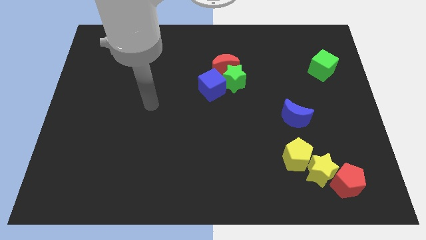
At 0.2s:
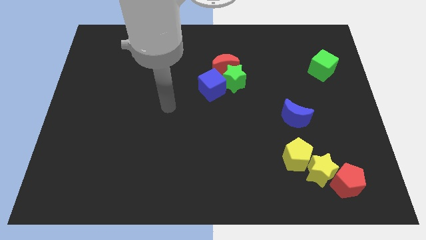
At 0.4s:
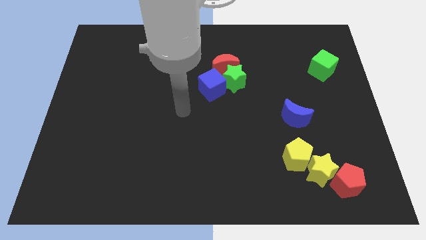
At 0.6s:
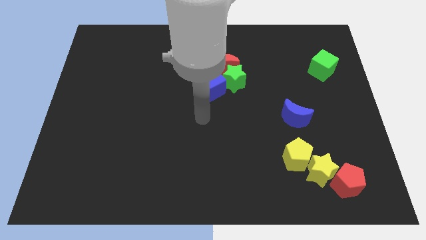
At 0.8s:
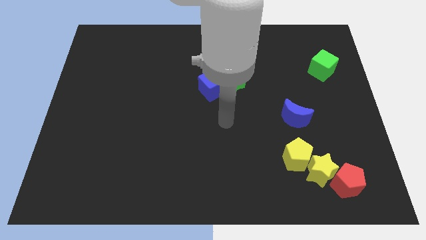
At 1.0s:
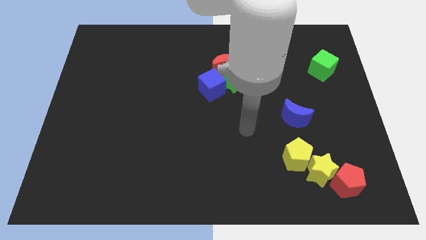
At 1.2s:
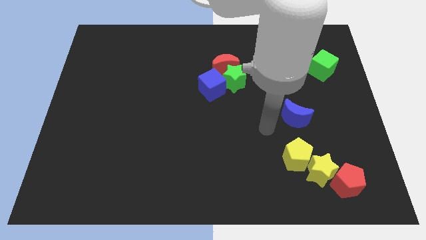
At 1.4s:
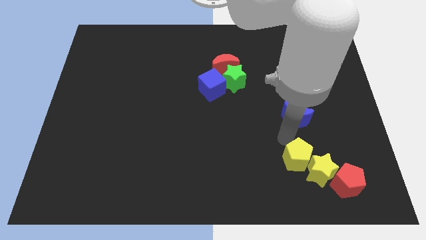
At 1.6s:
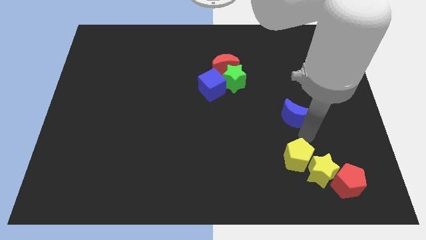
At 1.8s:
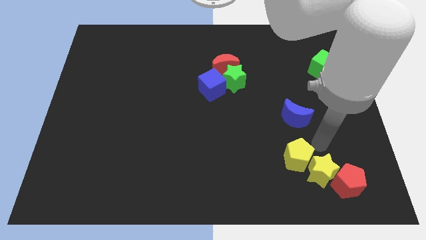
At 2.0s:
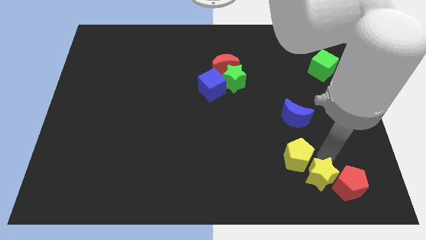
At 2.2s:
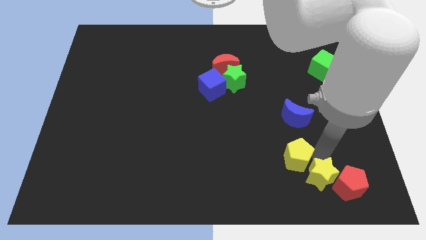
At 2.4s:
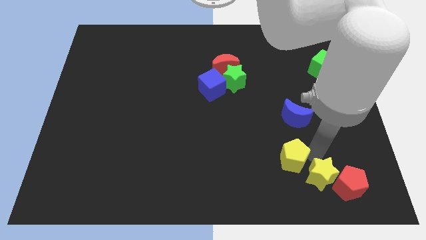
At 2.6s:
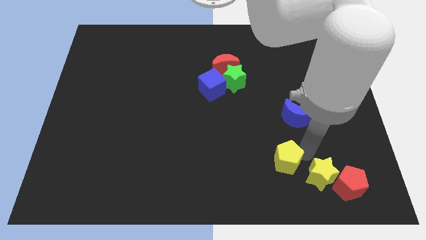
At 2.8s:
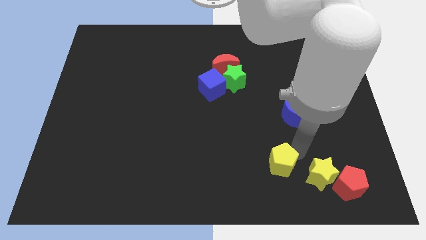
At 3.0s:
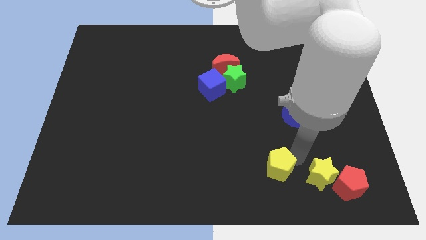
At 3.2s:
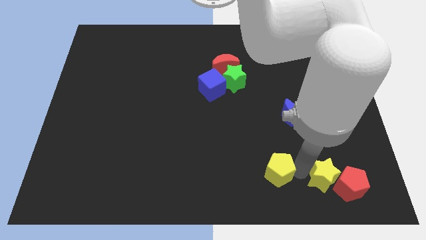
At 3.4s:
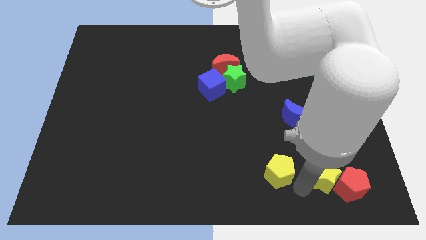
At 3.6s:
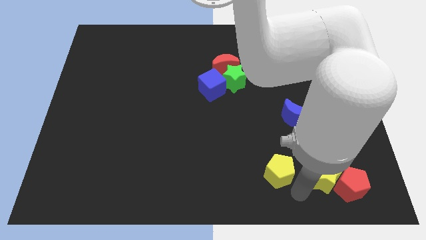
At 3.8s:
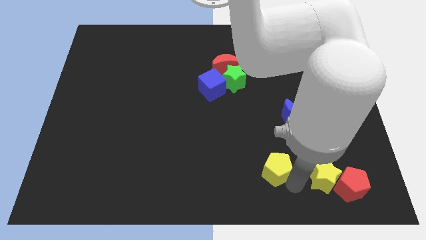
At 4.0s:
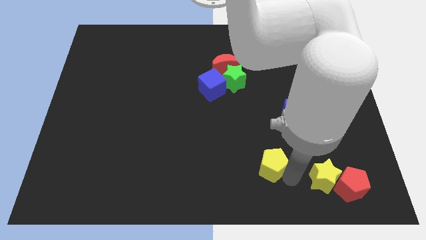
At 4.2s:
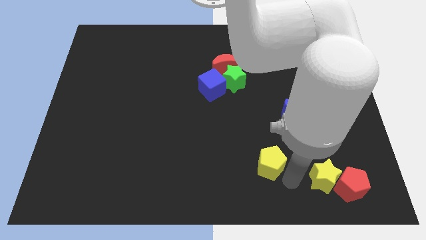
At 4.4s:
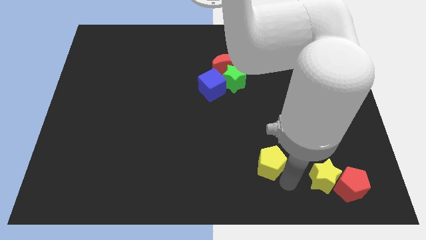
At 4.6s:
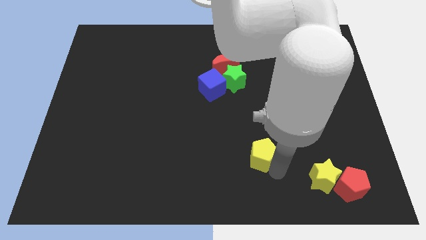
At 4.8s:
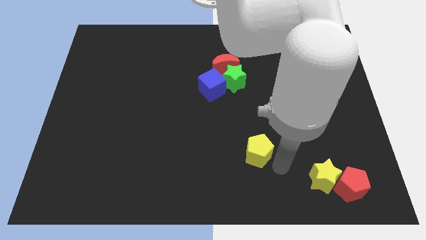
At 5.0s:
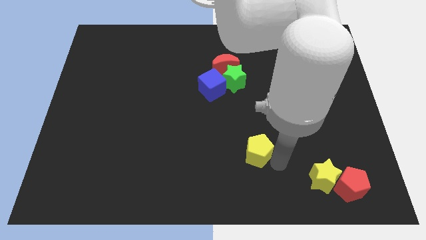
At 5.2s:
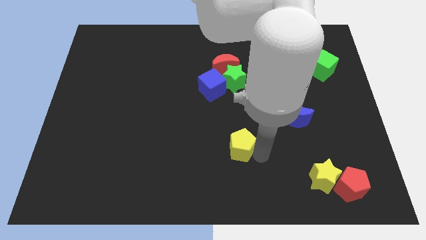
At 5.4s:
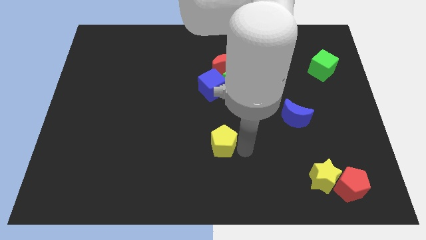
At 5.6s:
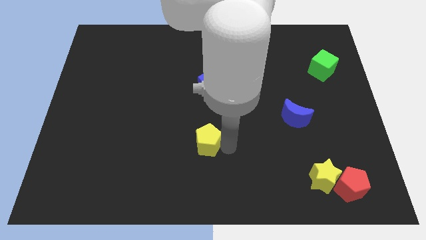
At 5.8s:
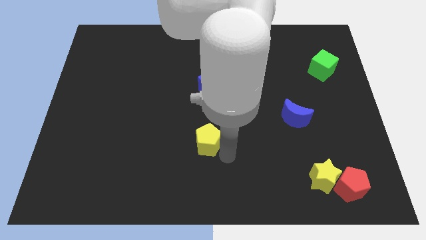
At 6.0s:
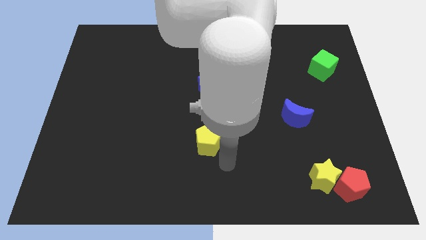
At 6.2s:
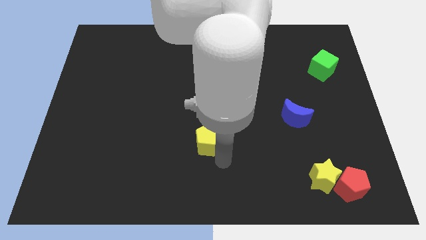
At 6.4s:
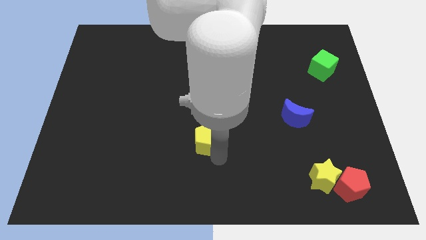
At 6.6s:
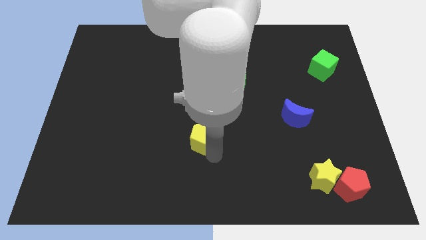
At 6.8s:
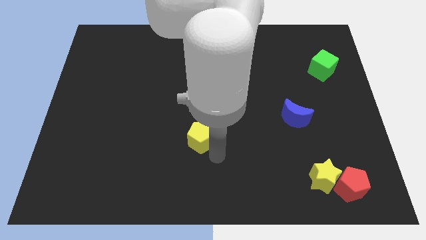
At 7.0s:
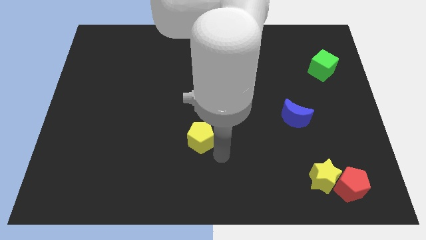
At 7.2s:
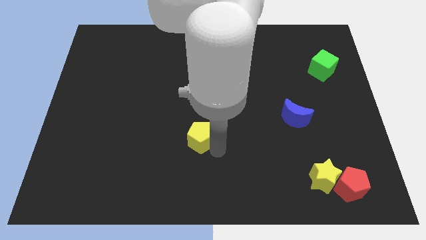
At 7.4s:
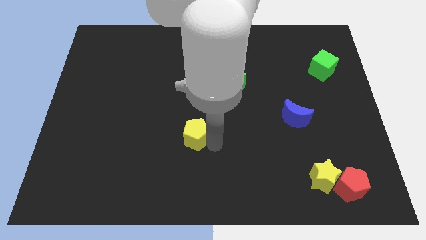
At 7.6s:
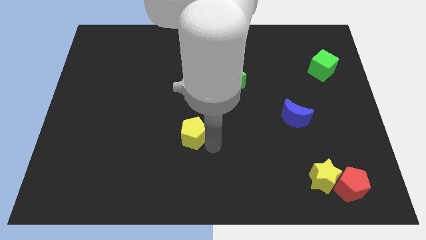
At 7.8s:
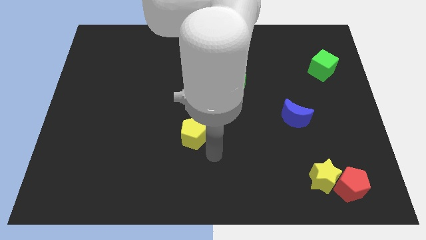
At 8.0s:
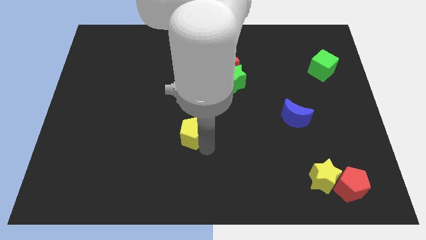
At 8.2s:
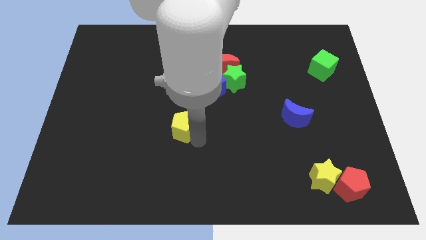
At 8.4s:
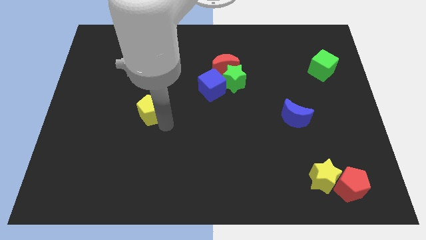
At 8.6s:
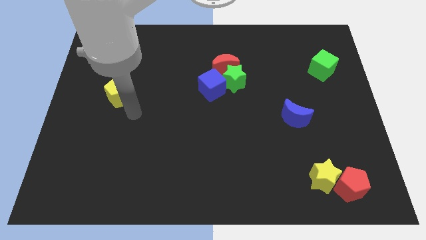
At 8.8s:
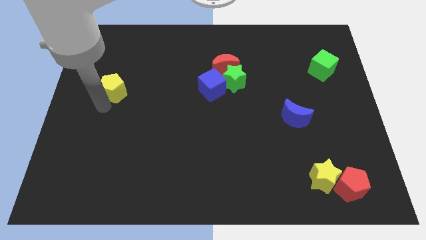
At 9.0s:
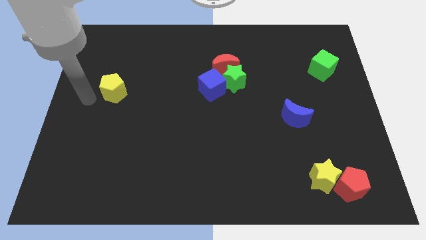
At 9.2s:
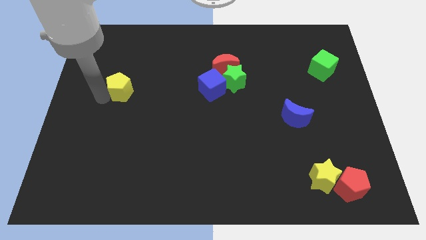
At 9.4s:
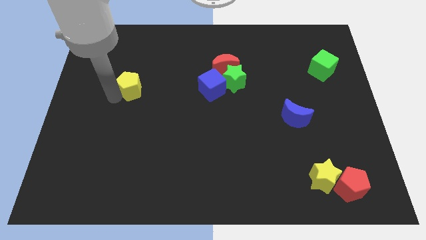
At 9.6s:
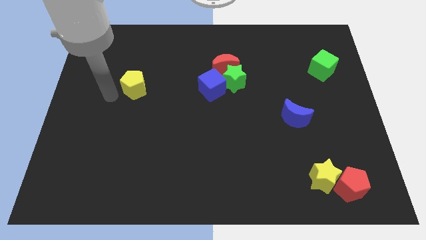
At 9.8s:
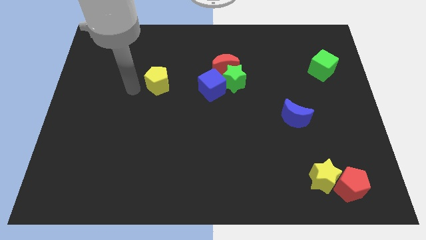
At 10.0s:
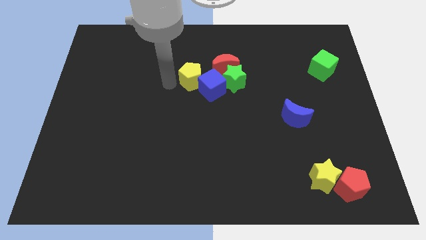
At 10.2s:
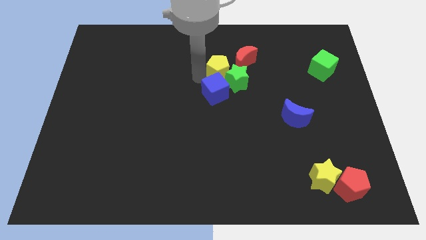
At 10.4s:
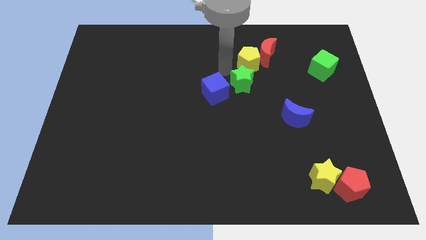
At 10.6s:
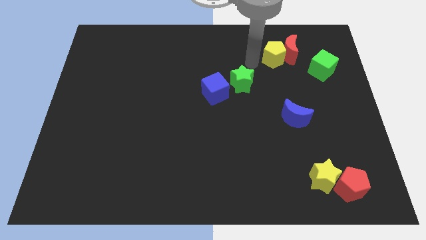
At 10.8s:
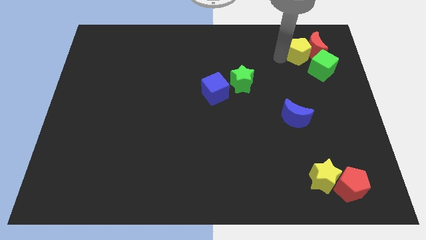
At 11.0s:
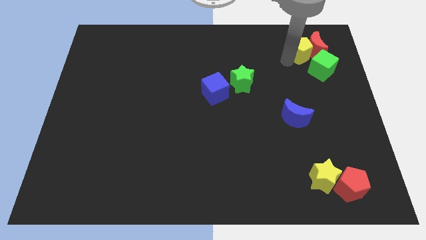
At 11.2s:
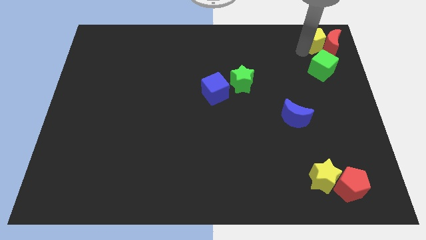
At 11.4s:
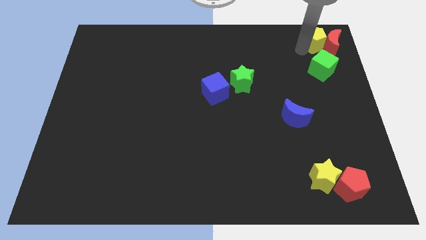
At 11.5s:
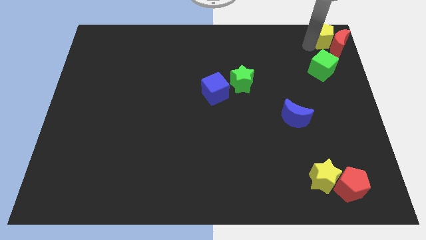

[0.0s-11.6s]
move the yellow pentagon to the top right

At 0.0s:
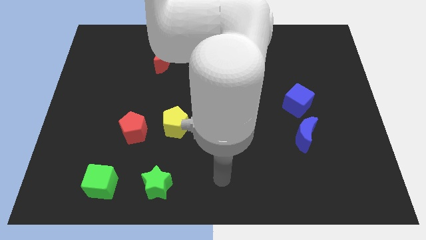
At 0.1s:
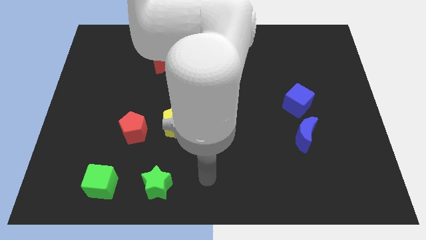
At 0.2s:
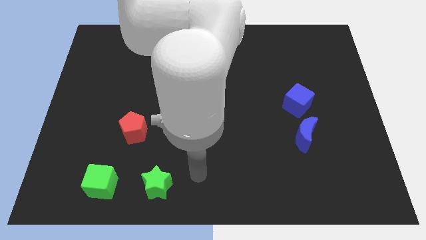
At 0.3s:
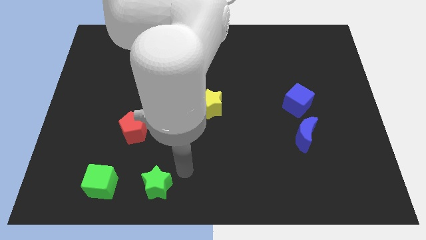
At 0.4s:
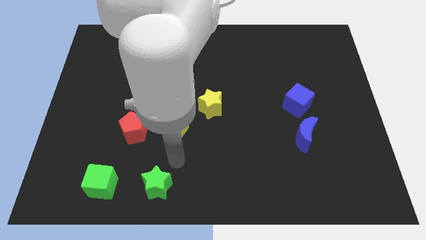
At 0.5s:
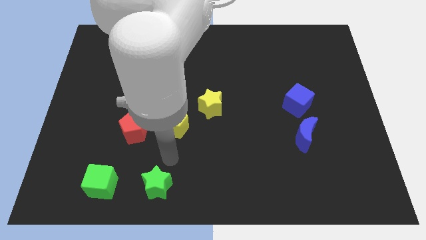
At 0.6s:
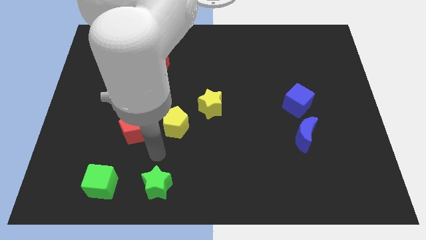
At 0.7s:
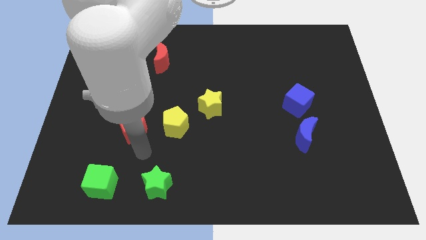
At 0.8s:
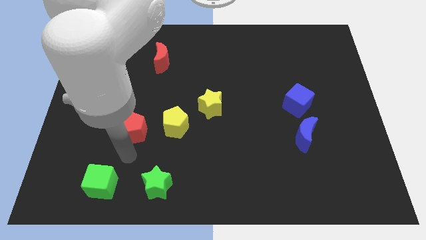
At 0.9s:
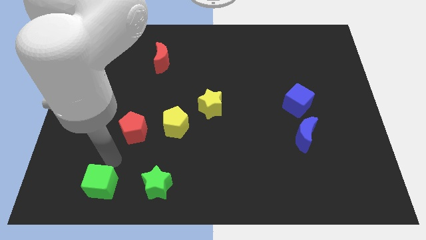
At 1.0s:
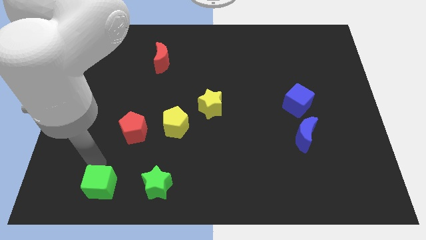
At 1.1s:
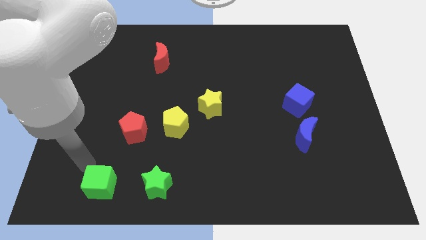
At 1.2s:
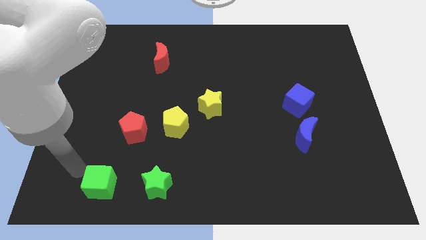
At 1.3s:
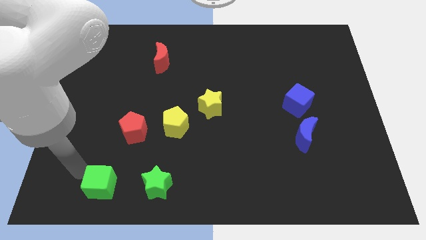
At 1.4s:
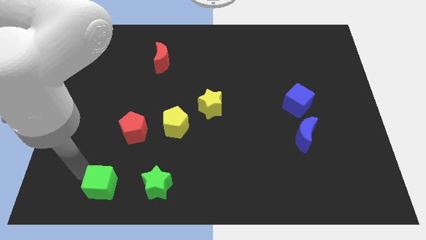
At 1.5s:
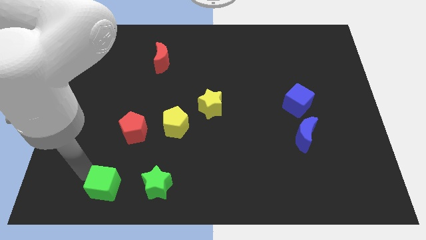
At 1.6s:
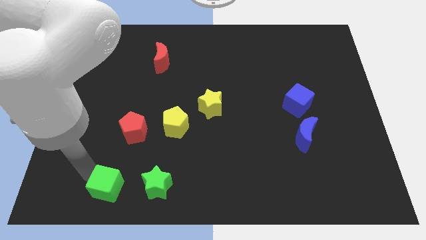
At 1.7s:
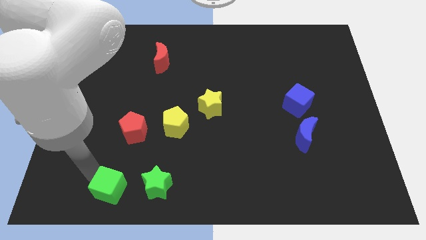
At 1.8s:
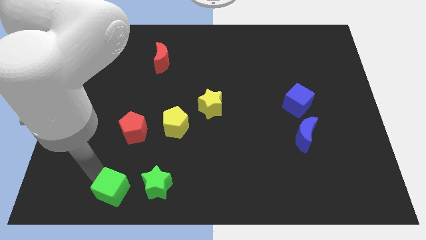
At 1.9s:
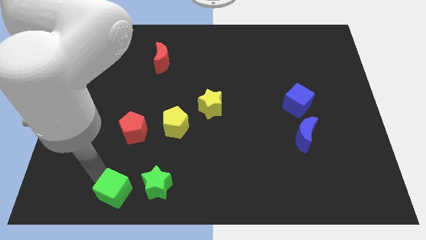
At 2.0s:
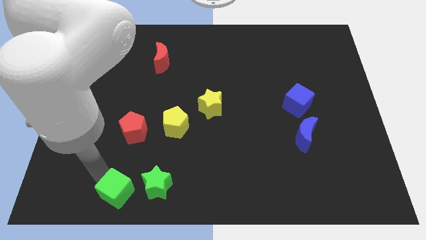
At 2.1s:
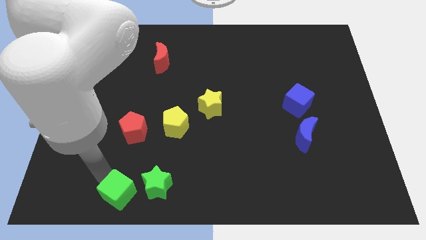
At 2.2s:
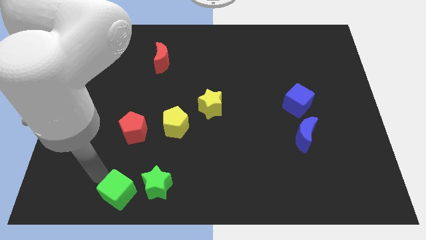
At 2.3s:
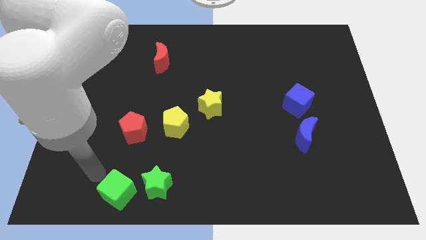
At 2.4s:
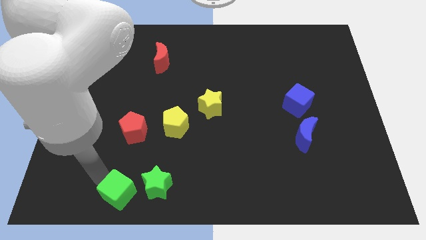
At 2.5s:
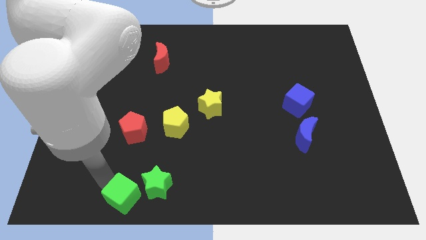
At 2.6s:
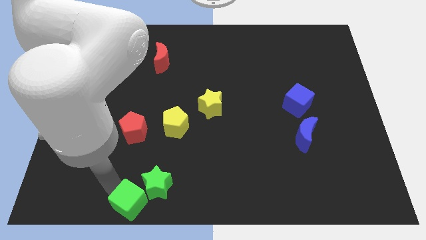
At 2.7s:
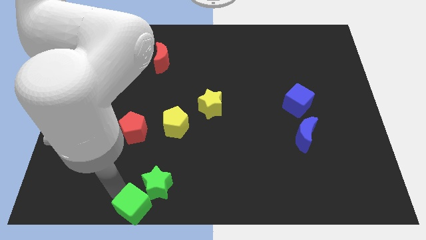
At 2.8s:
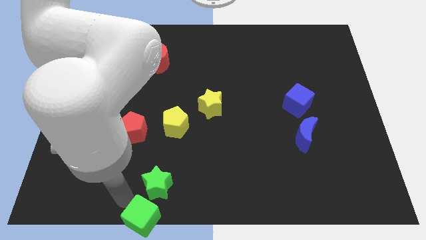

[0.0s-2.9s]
slide the green cube to the bottom side
